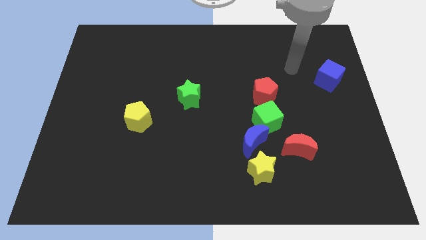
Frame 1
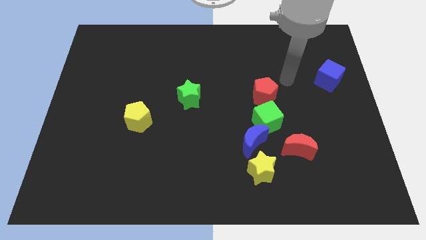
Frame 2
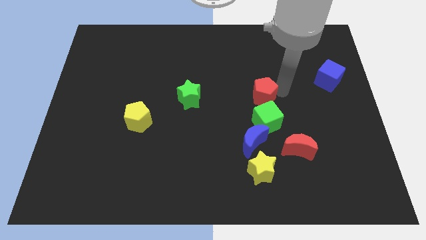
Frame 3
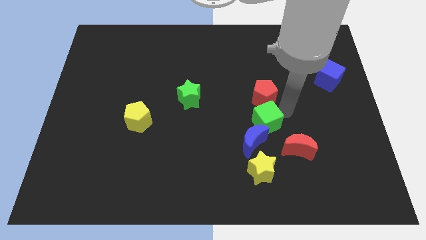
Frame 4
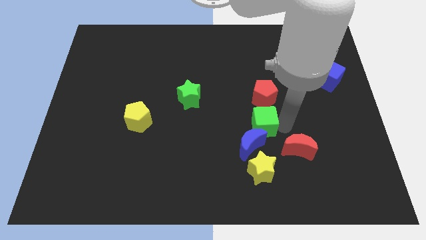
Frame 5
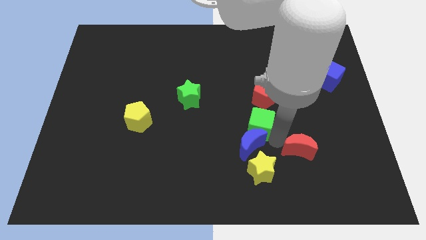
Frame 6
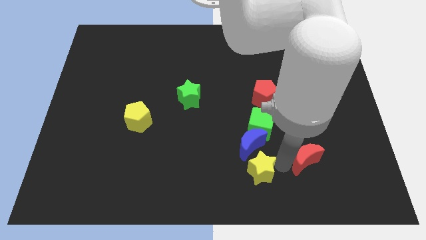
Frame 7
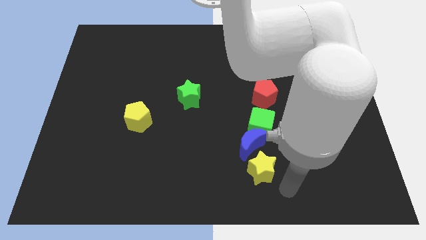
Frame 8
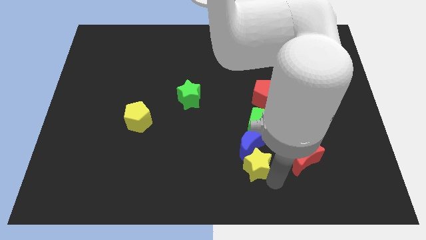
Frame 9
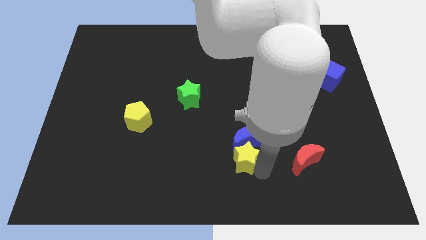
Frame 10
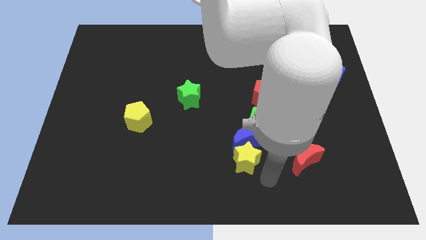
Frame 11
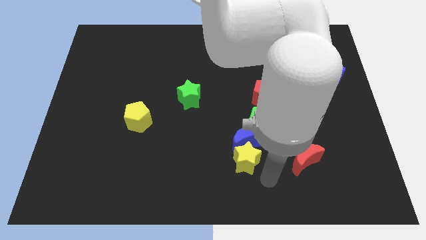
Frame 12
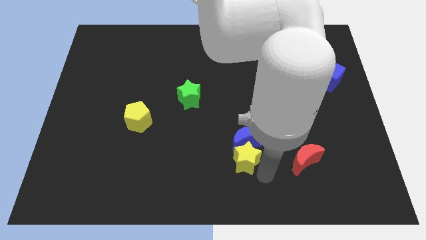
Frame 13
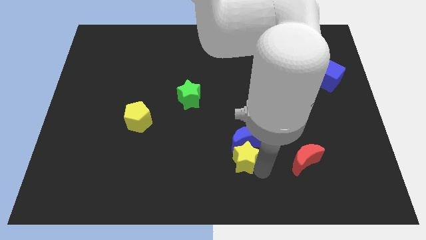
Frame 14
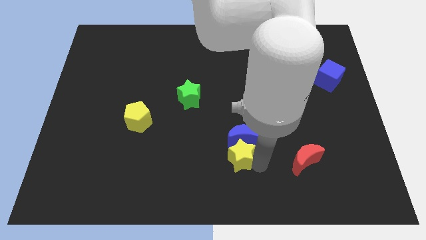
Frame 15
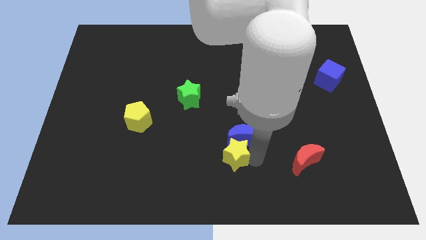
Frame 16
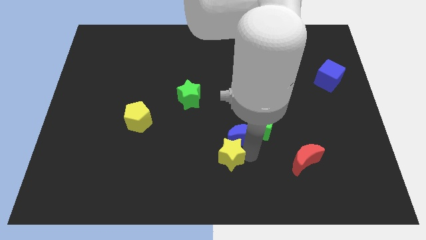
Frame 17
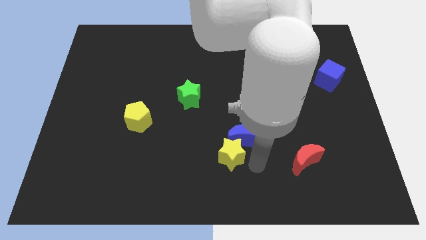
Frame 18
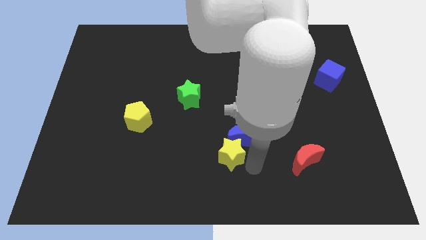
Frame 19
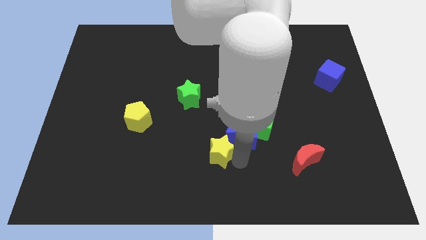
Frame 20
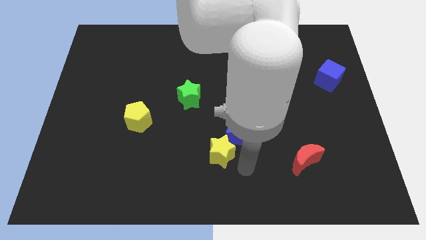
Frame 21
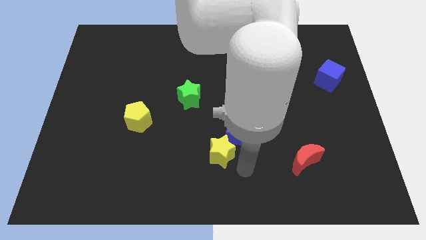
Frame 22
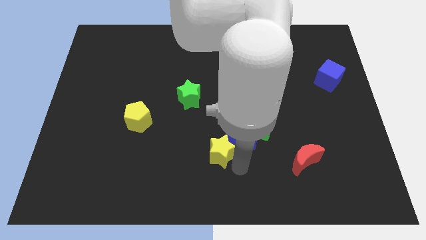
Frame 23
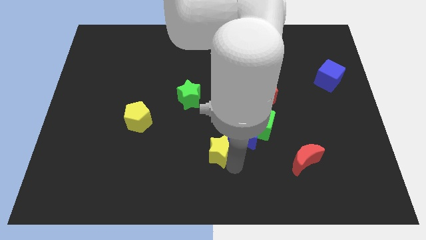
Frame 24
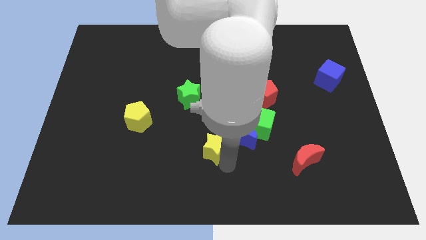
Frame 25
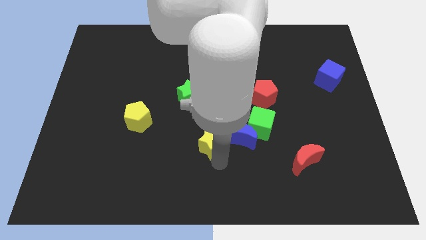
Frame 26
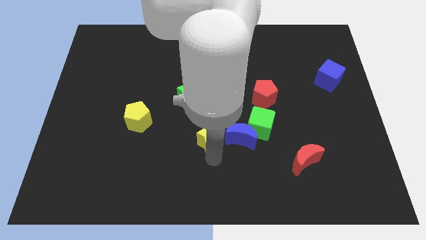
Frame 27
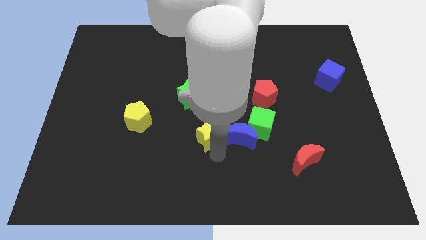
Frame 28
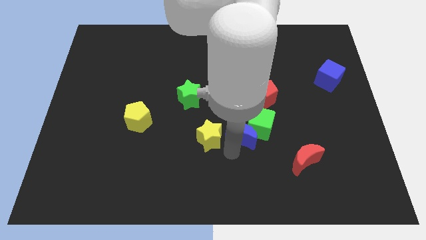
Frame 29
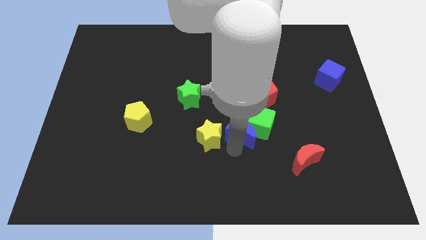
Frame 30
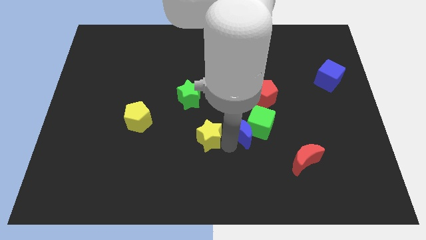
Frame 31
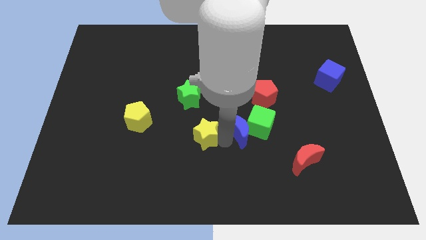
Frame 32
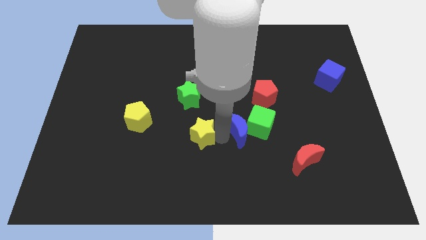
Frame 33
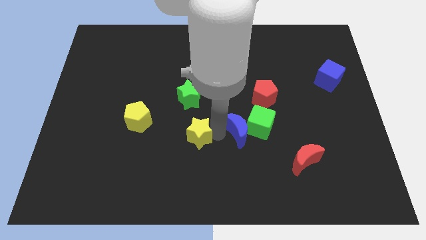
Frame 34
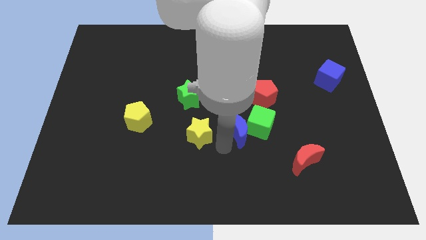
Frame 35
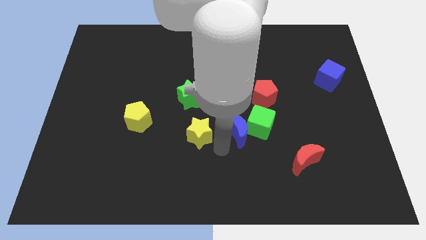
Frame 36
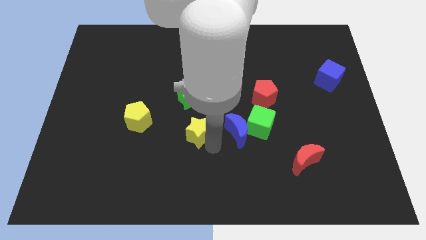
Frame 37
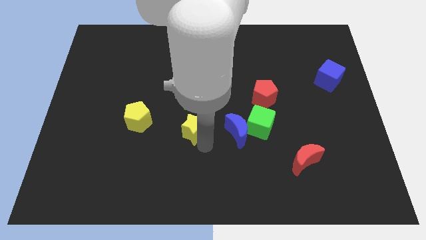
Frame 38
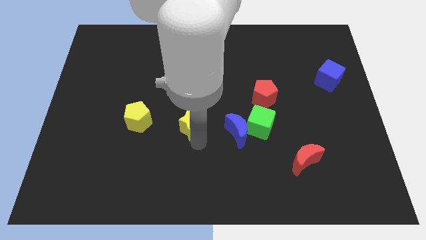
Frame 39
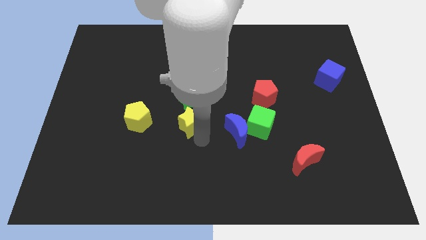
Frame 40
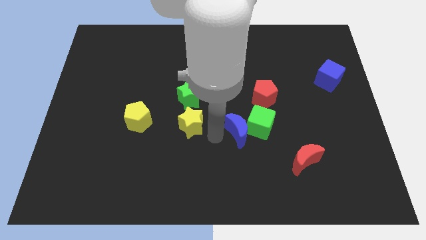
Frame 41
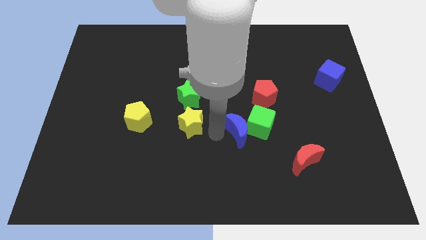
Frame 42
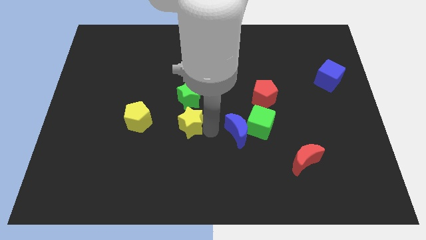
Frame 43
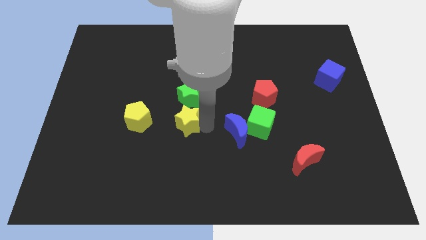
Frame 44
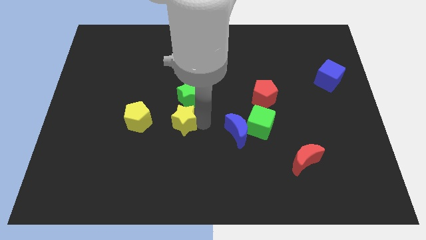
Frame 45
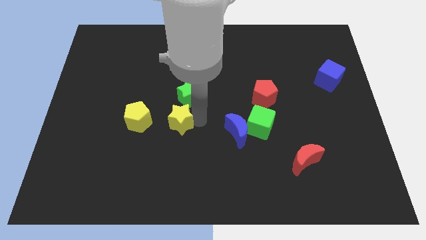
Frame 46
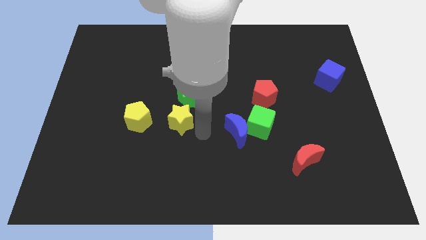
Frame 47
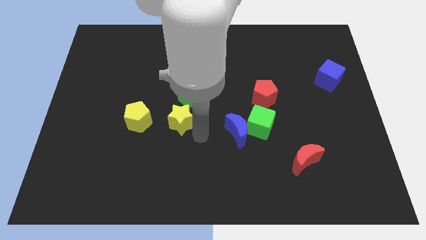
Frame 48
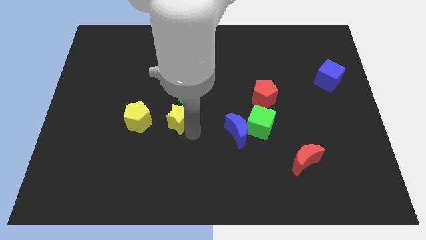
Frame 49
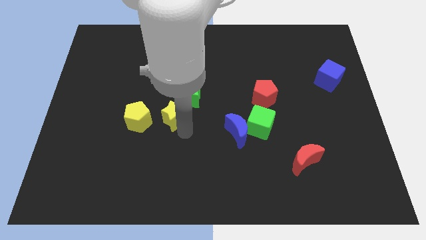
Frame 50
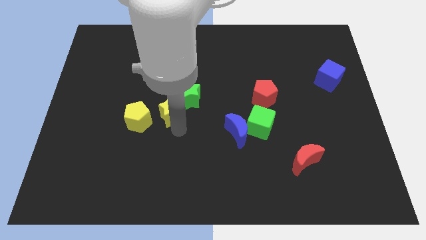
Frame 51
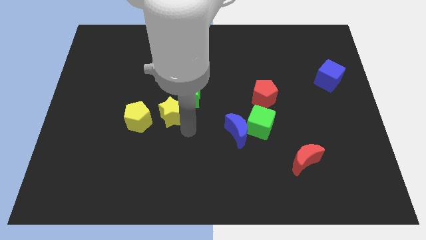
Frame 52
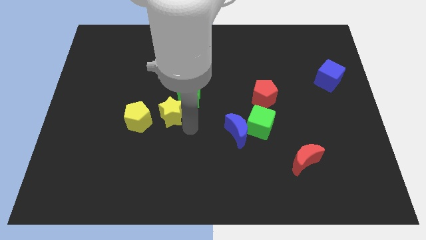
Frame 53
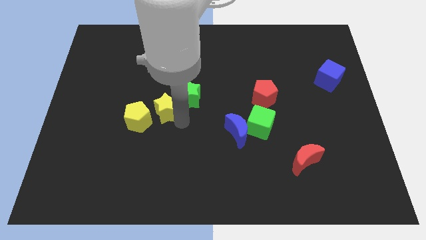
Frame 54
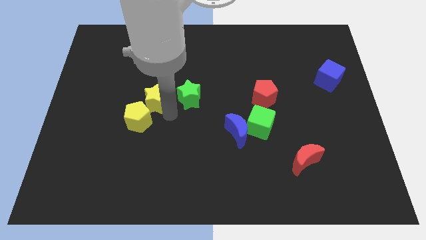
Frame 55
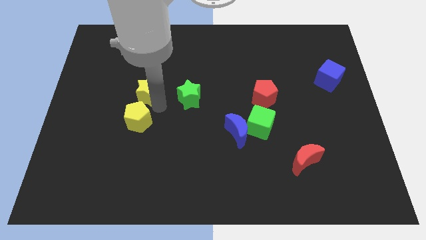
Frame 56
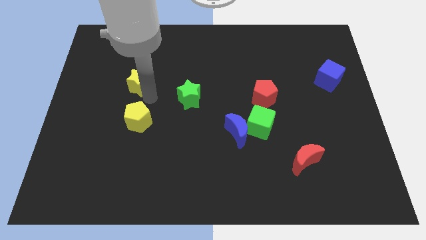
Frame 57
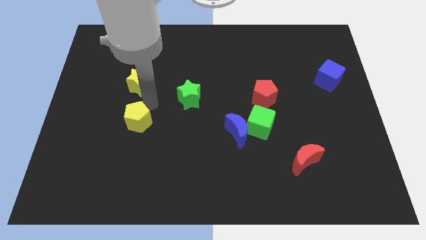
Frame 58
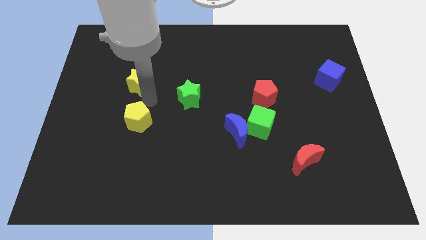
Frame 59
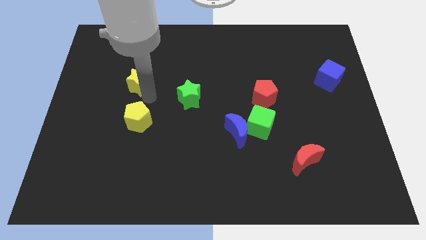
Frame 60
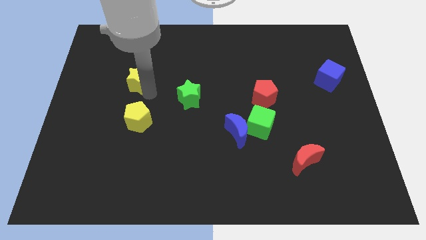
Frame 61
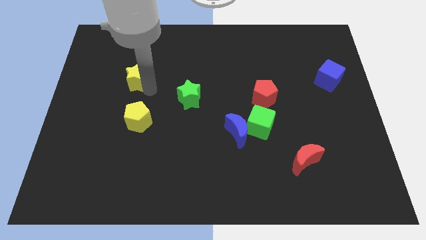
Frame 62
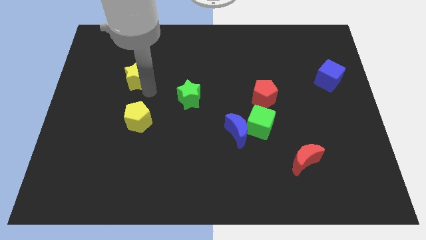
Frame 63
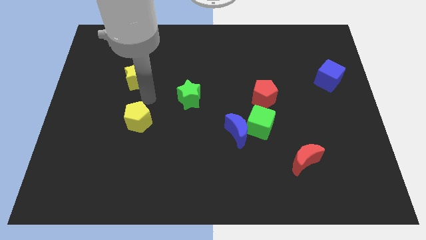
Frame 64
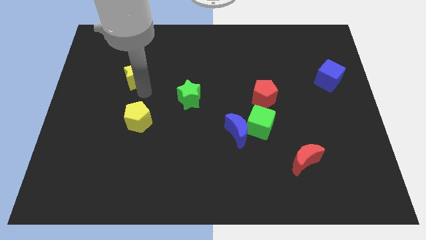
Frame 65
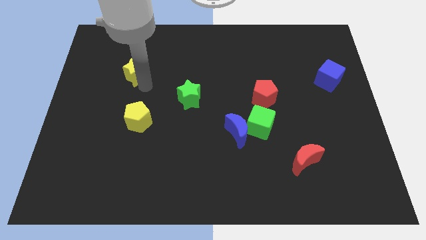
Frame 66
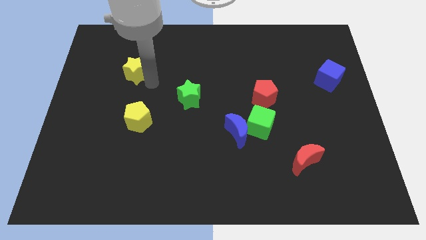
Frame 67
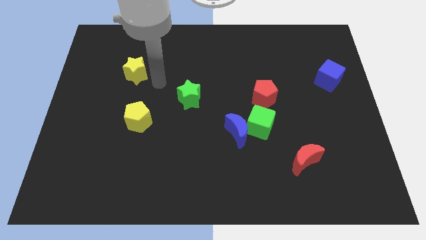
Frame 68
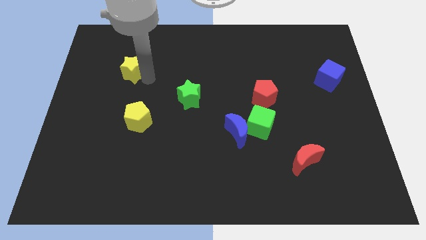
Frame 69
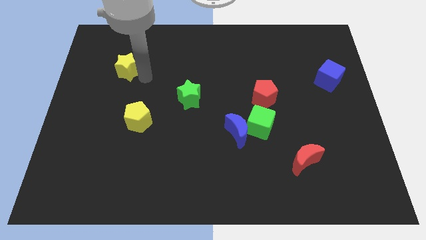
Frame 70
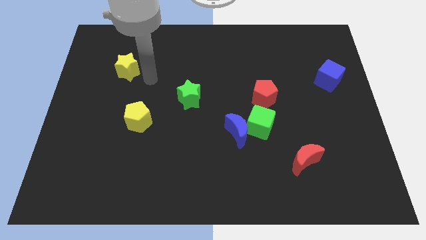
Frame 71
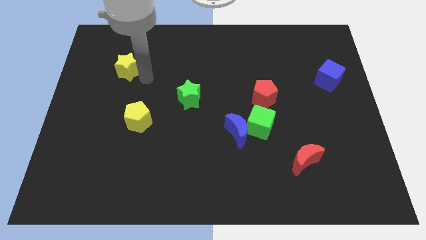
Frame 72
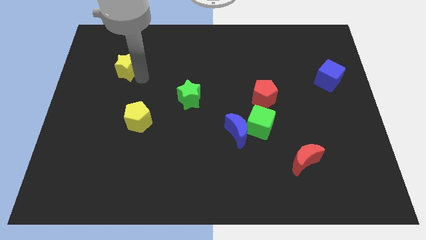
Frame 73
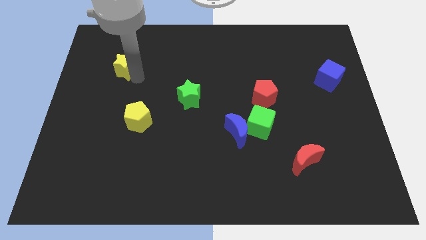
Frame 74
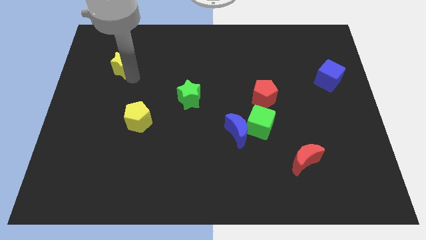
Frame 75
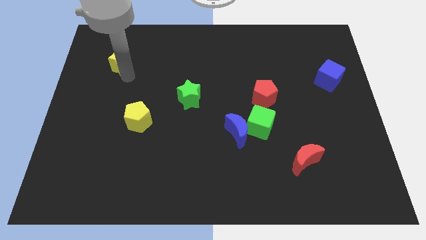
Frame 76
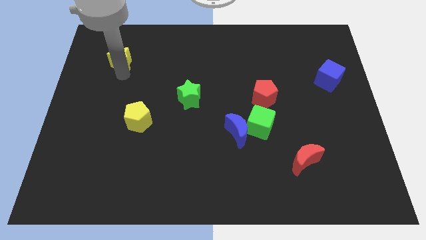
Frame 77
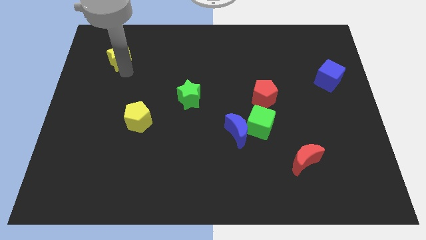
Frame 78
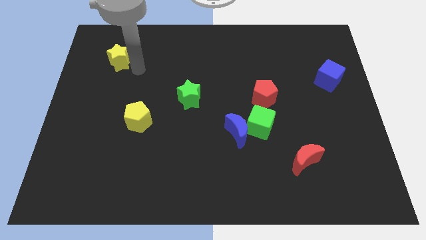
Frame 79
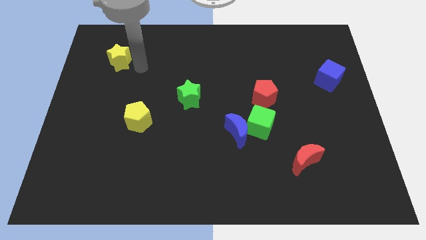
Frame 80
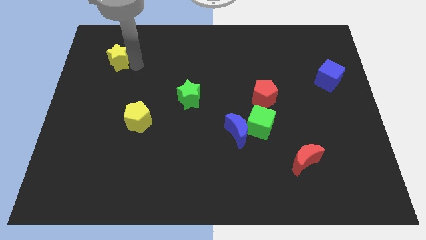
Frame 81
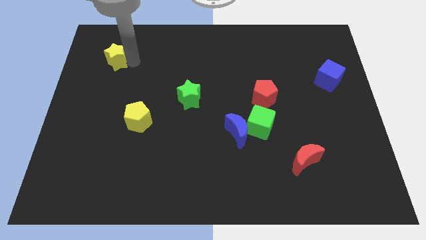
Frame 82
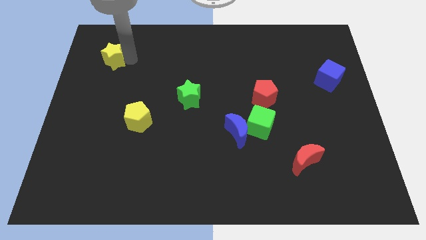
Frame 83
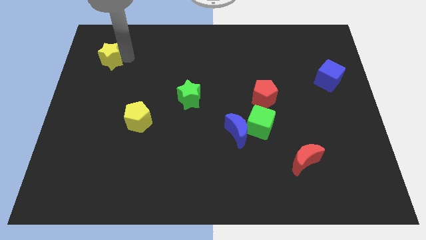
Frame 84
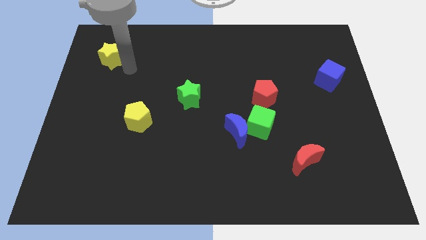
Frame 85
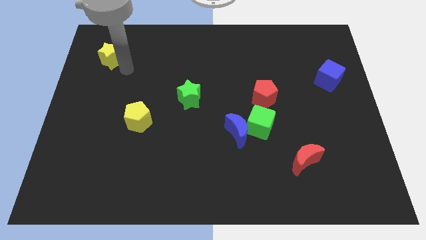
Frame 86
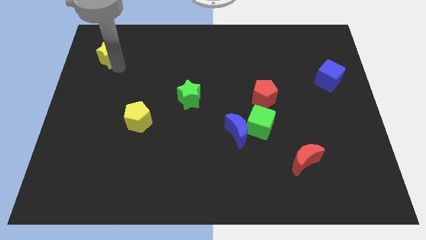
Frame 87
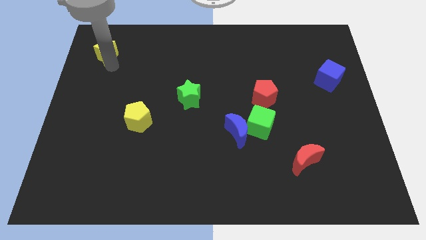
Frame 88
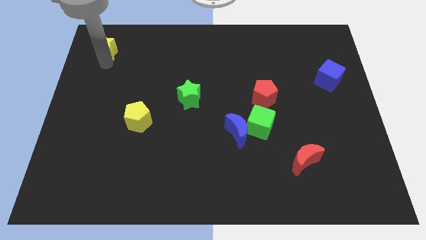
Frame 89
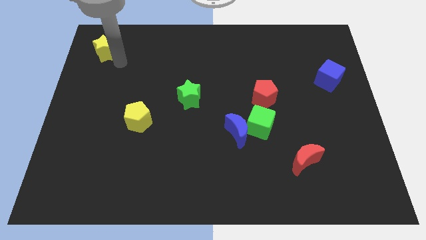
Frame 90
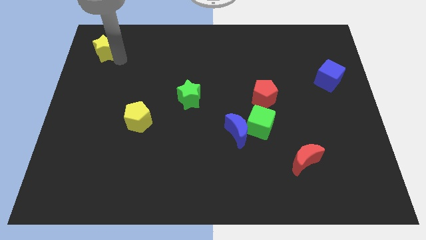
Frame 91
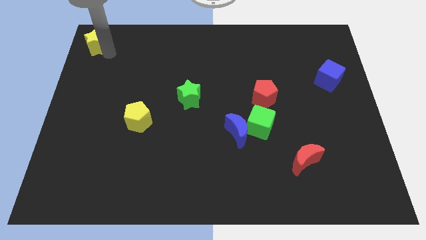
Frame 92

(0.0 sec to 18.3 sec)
put the yellow star to the top left corner
